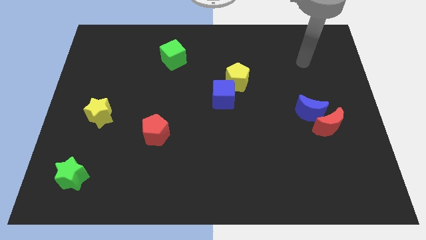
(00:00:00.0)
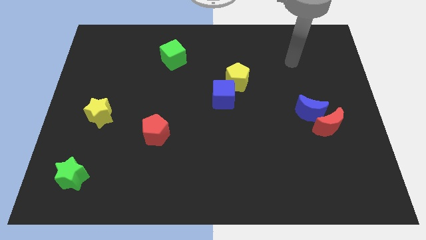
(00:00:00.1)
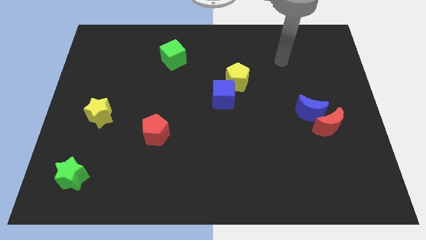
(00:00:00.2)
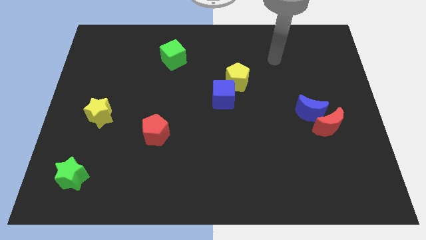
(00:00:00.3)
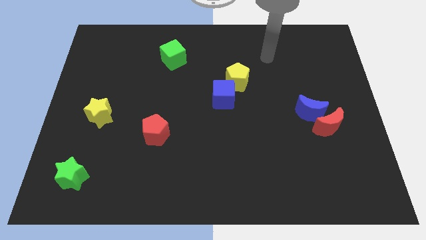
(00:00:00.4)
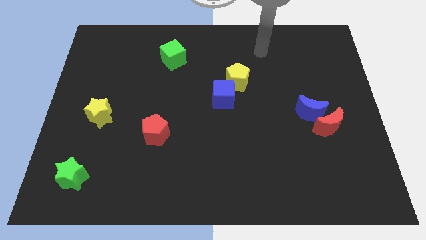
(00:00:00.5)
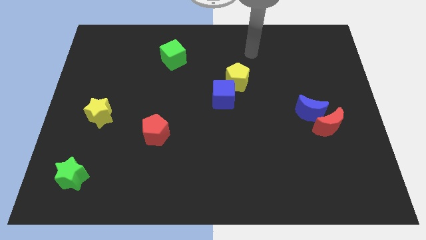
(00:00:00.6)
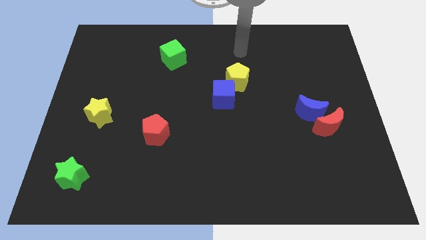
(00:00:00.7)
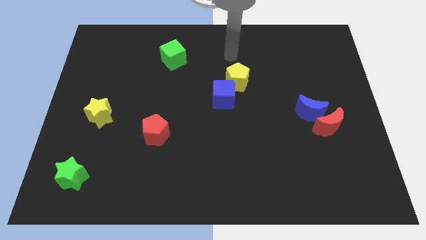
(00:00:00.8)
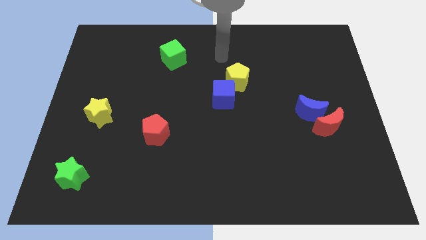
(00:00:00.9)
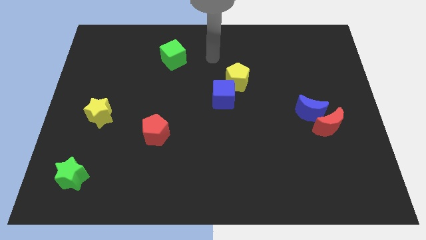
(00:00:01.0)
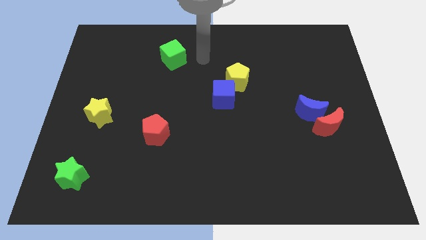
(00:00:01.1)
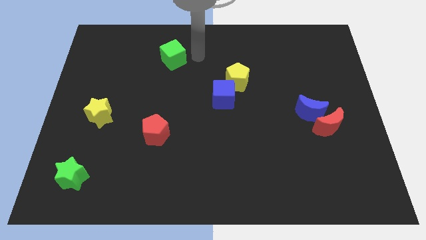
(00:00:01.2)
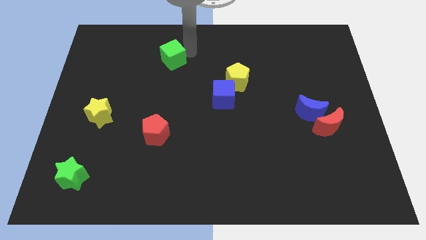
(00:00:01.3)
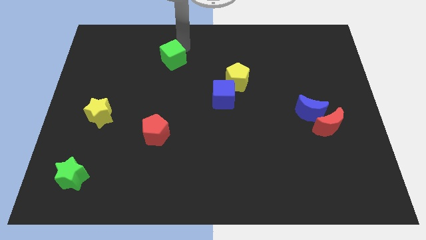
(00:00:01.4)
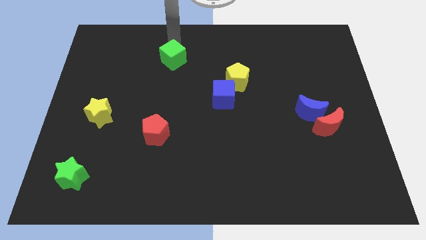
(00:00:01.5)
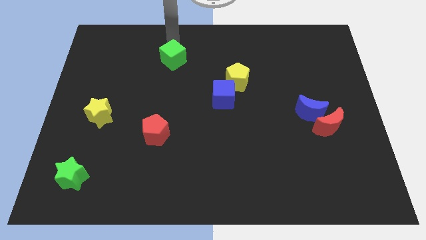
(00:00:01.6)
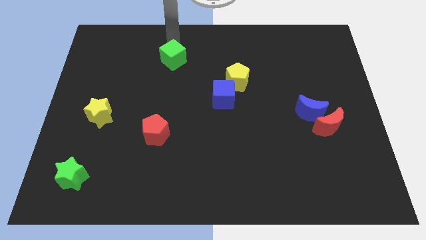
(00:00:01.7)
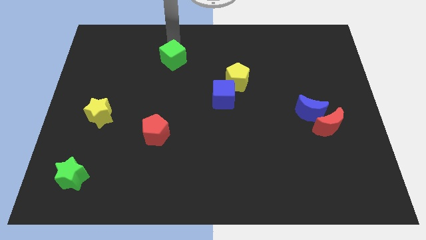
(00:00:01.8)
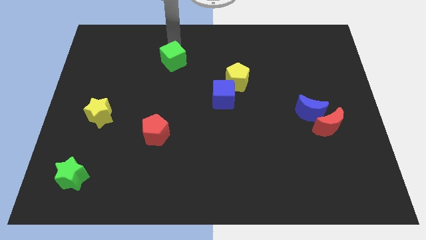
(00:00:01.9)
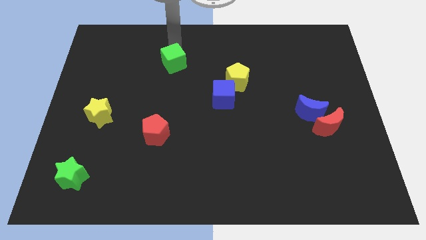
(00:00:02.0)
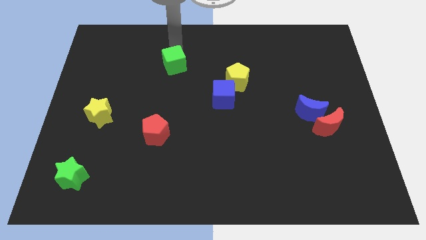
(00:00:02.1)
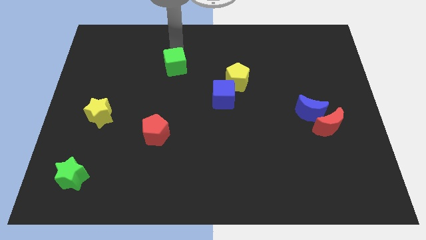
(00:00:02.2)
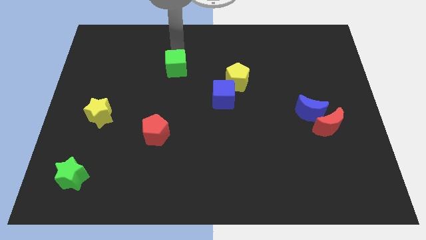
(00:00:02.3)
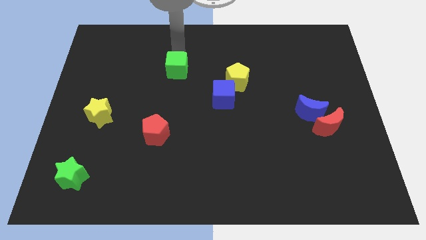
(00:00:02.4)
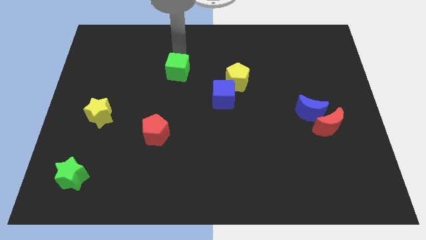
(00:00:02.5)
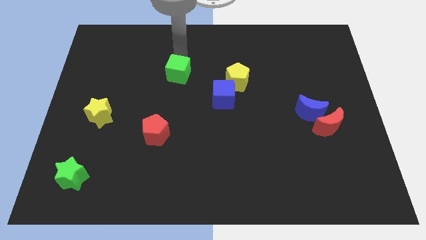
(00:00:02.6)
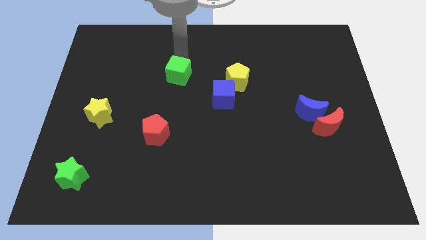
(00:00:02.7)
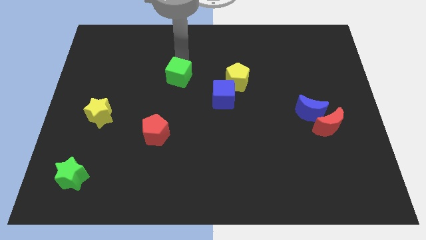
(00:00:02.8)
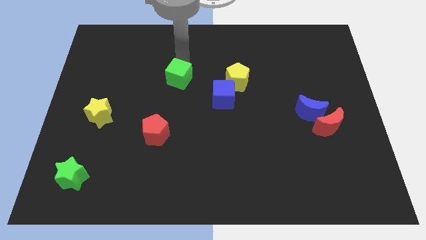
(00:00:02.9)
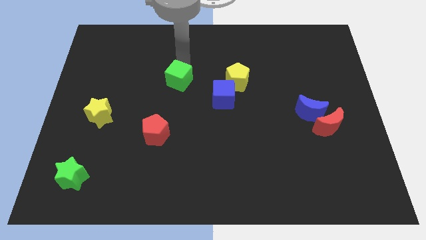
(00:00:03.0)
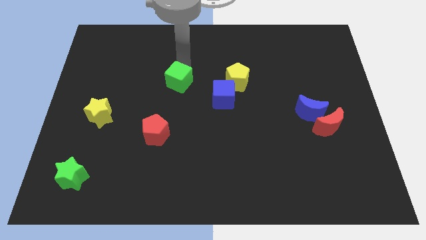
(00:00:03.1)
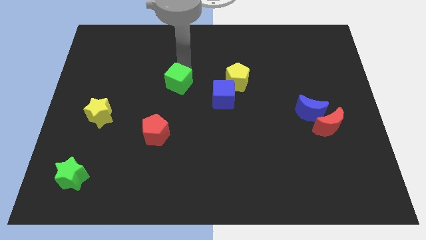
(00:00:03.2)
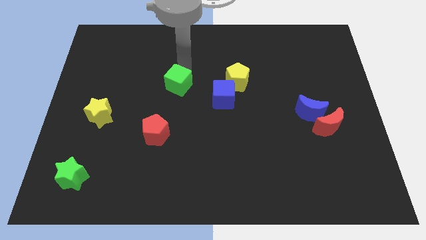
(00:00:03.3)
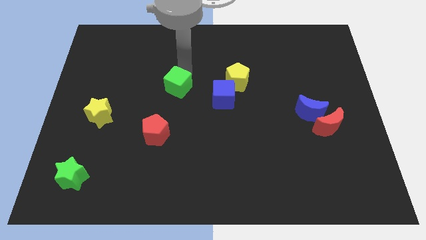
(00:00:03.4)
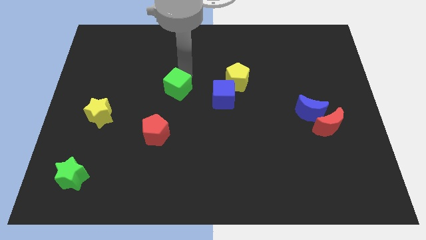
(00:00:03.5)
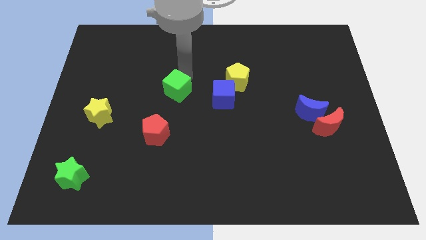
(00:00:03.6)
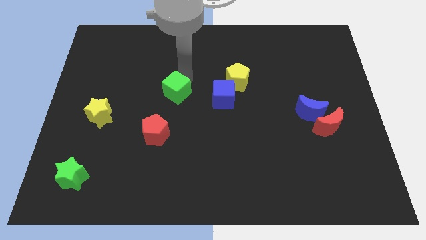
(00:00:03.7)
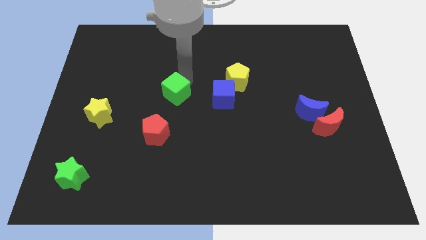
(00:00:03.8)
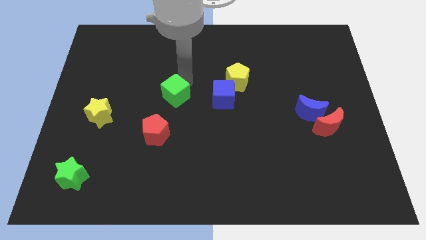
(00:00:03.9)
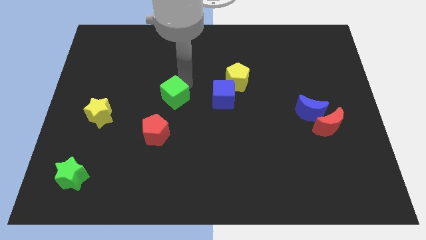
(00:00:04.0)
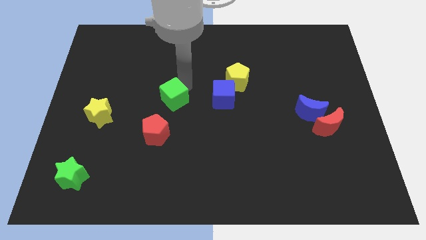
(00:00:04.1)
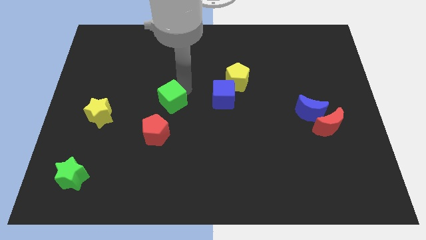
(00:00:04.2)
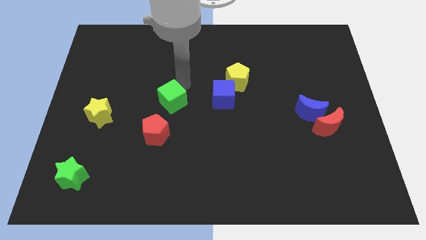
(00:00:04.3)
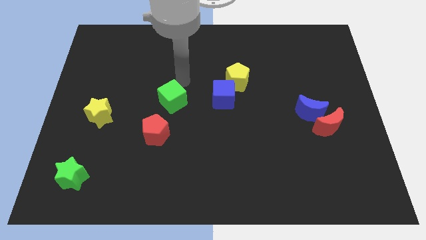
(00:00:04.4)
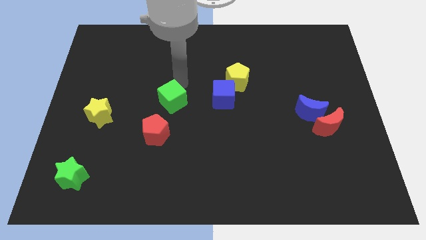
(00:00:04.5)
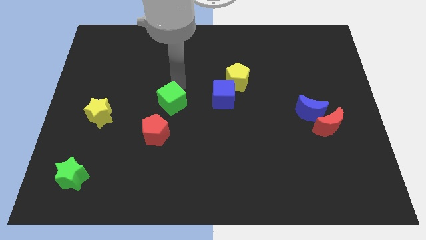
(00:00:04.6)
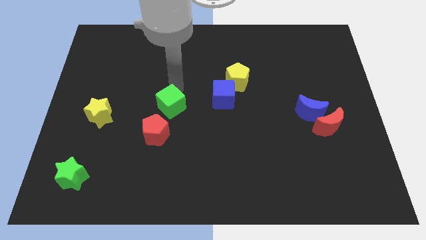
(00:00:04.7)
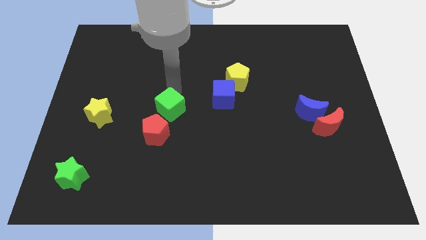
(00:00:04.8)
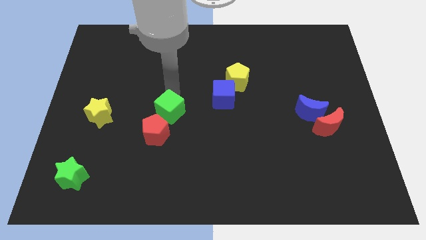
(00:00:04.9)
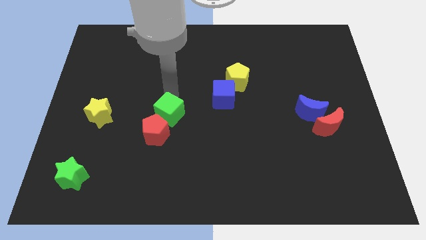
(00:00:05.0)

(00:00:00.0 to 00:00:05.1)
put the green cube next to the red pentagon

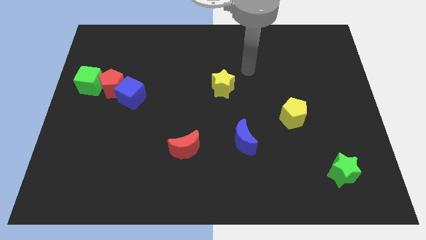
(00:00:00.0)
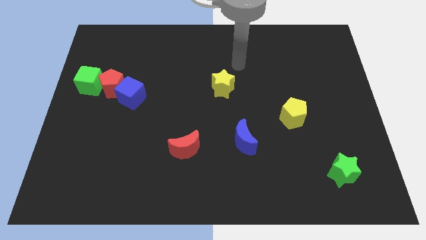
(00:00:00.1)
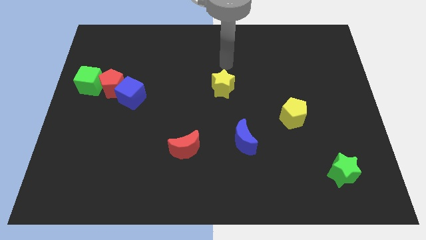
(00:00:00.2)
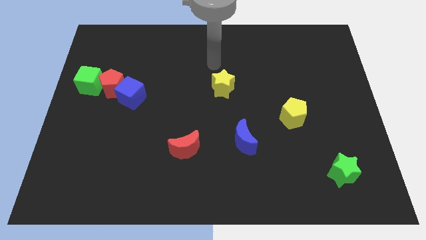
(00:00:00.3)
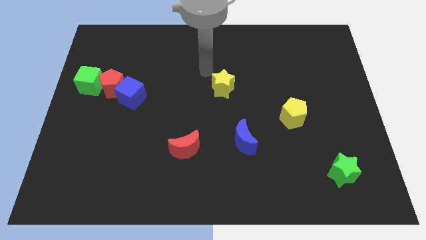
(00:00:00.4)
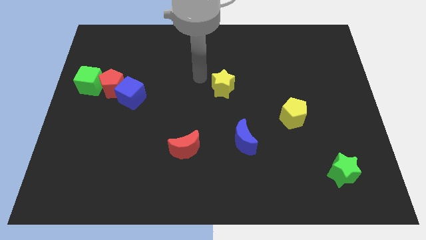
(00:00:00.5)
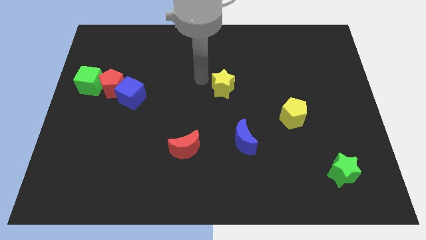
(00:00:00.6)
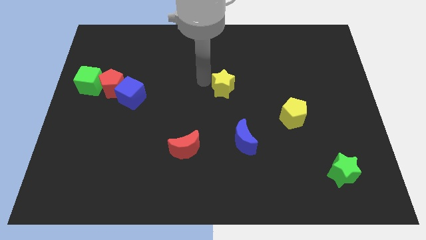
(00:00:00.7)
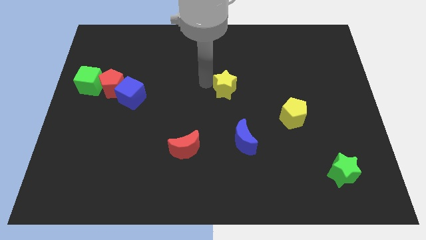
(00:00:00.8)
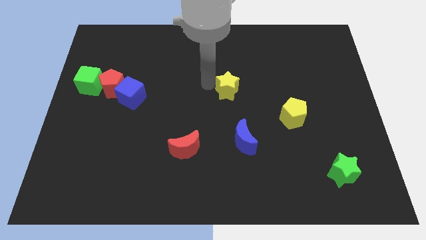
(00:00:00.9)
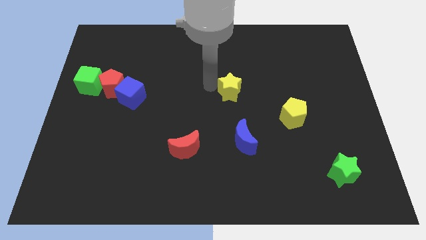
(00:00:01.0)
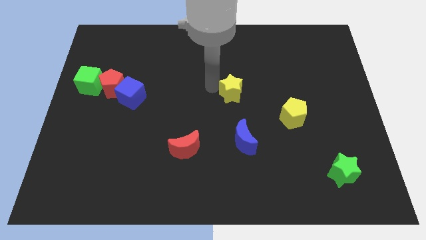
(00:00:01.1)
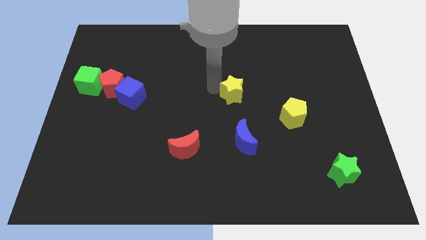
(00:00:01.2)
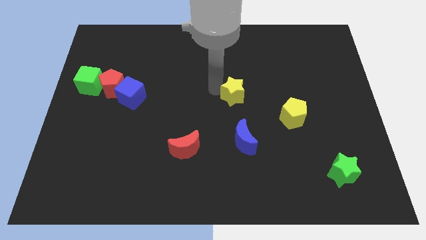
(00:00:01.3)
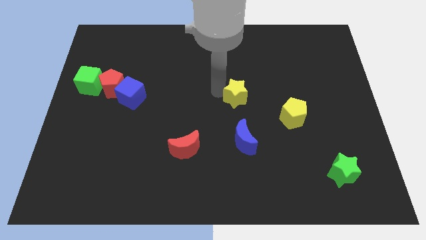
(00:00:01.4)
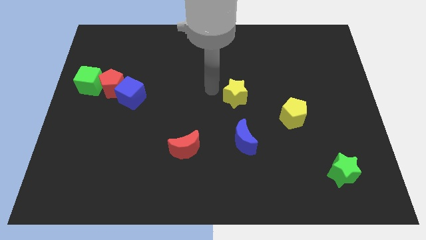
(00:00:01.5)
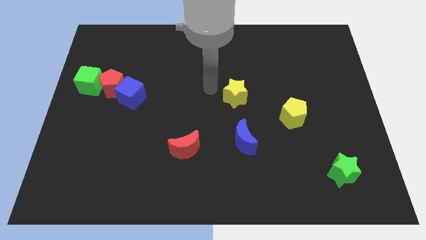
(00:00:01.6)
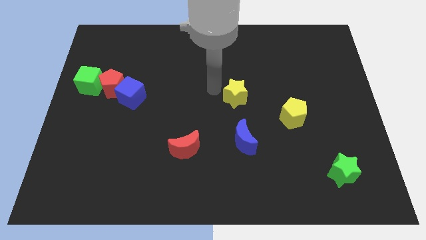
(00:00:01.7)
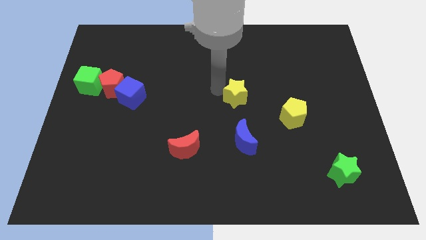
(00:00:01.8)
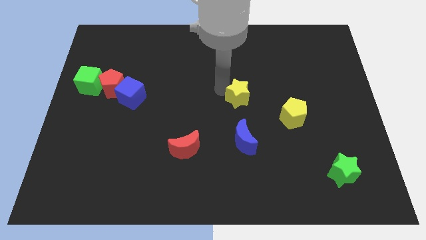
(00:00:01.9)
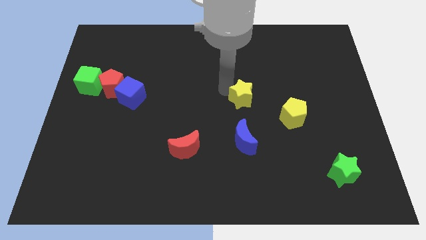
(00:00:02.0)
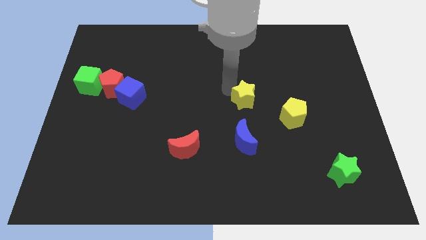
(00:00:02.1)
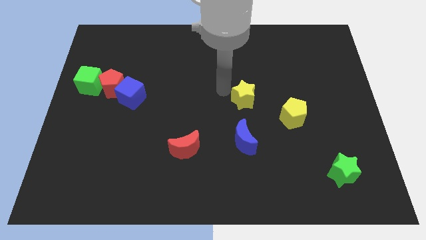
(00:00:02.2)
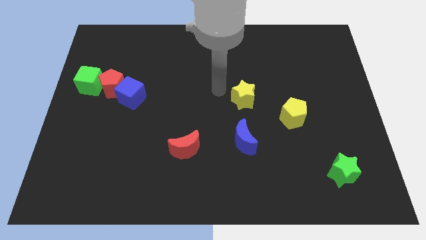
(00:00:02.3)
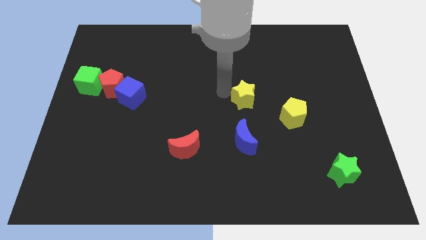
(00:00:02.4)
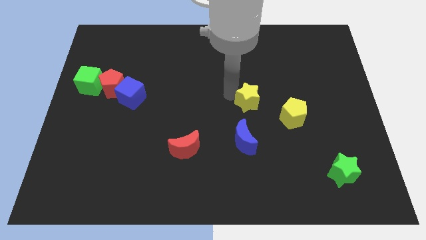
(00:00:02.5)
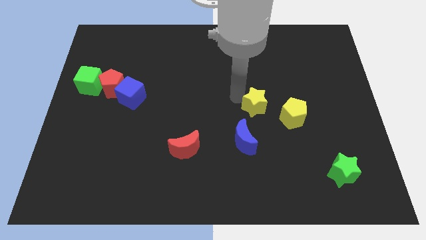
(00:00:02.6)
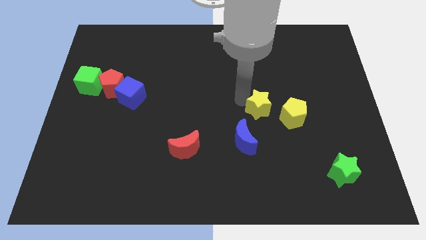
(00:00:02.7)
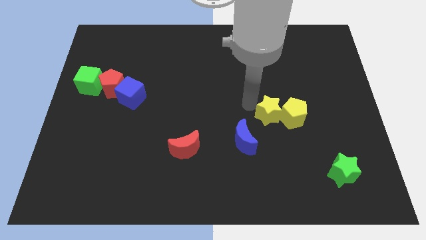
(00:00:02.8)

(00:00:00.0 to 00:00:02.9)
put the yellow star towards the yellow pentagon
